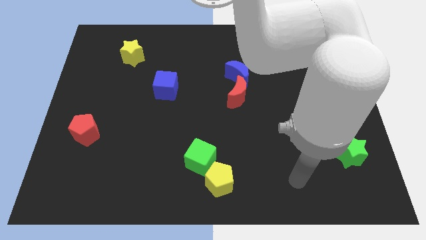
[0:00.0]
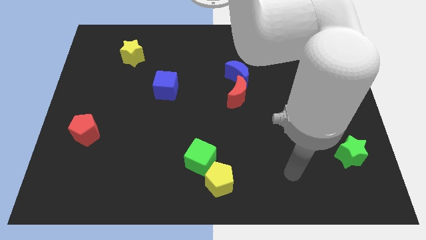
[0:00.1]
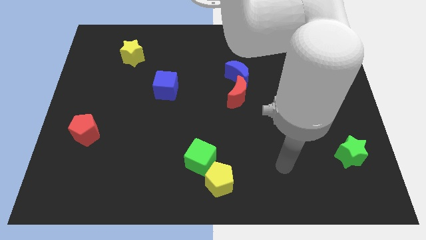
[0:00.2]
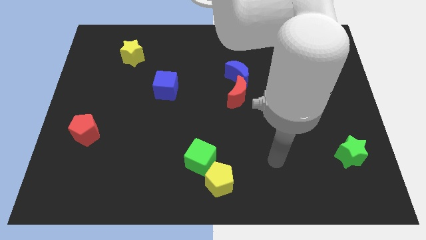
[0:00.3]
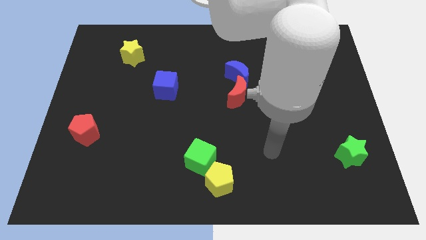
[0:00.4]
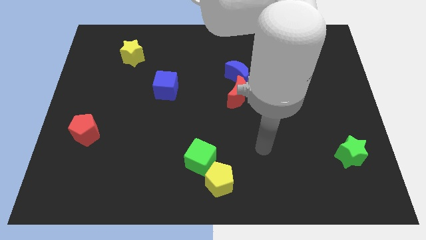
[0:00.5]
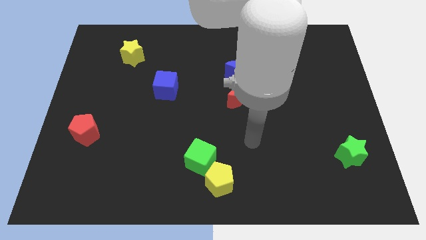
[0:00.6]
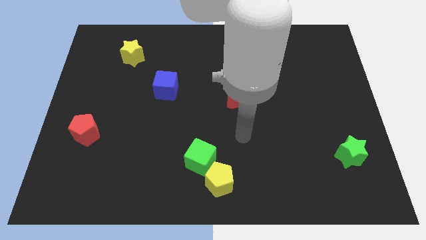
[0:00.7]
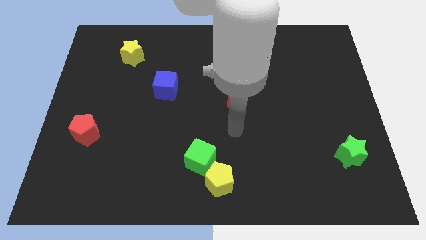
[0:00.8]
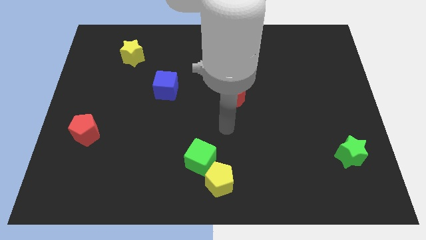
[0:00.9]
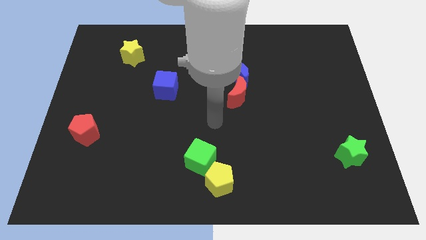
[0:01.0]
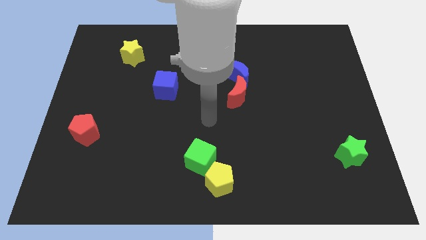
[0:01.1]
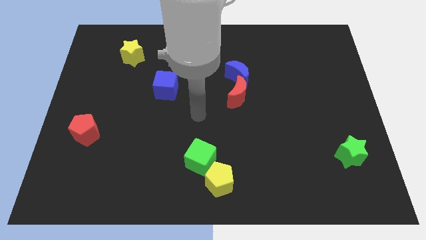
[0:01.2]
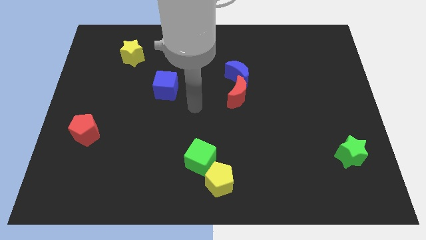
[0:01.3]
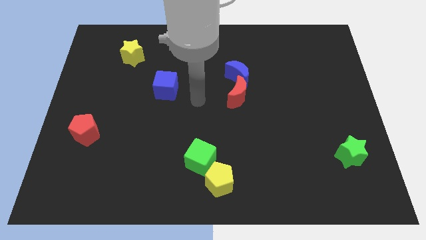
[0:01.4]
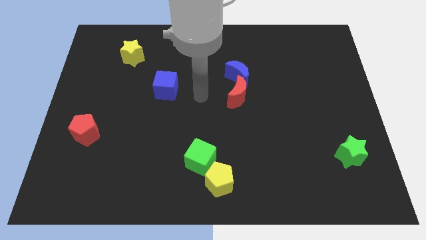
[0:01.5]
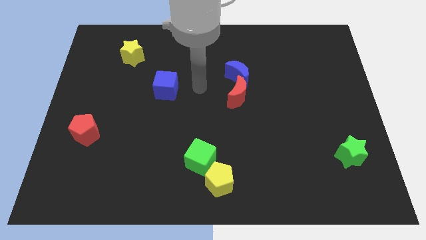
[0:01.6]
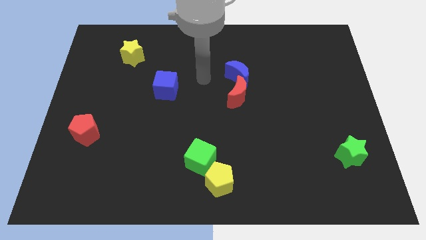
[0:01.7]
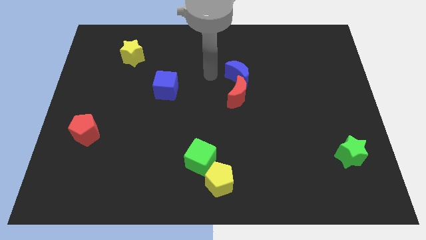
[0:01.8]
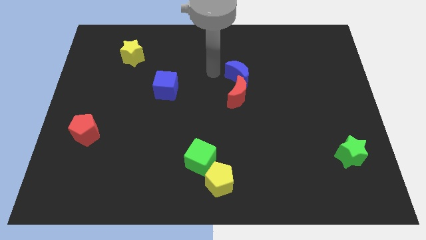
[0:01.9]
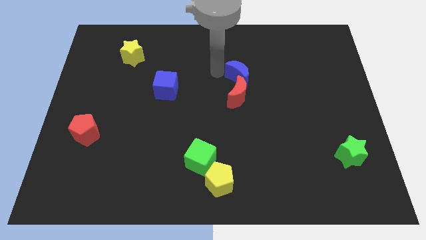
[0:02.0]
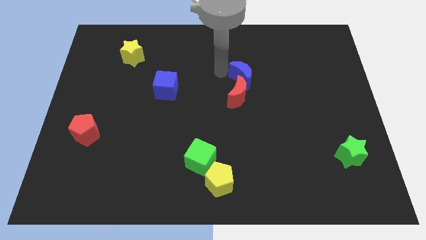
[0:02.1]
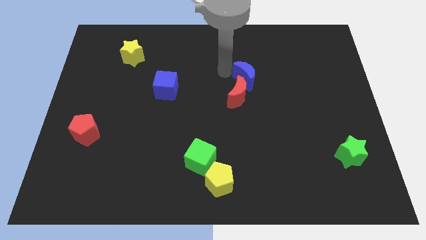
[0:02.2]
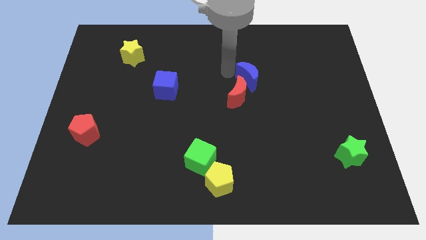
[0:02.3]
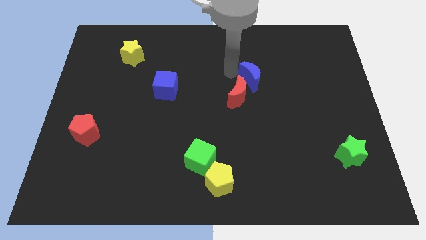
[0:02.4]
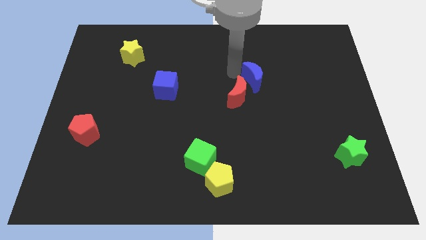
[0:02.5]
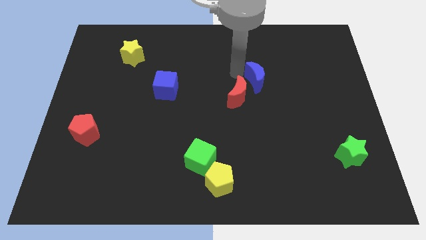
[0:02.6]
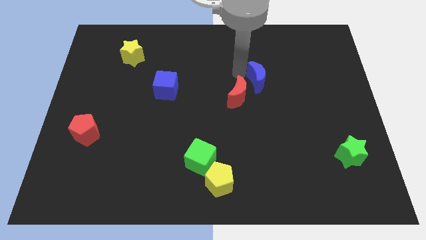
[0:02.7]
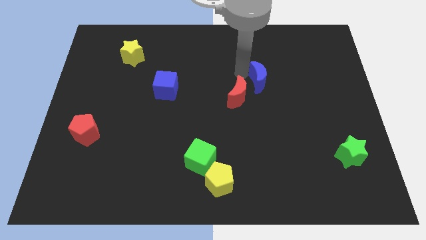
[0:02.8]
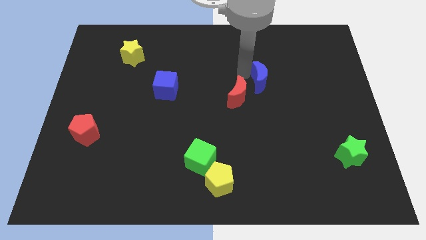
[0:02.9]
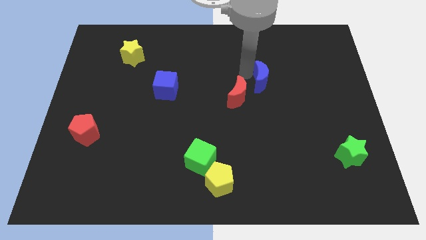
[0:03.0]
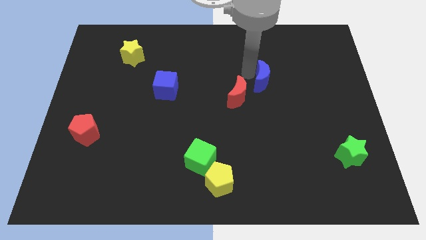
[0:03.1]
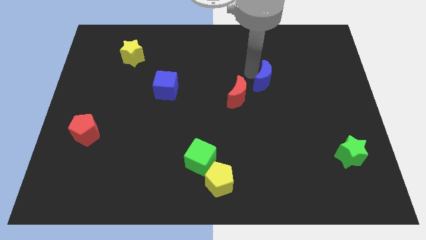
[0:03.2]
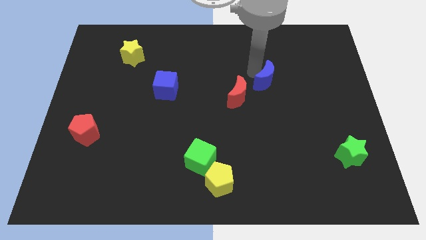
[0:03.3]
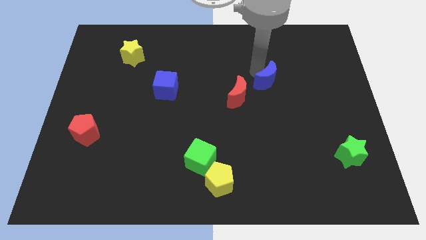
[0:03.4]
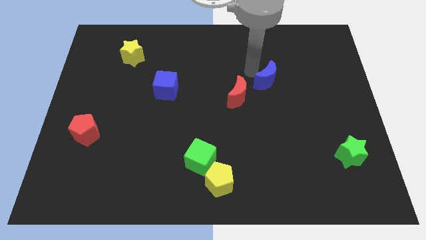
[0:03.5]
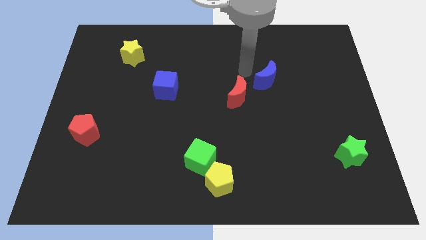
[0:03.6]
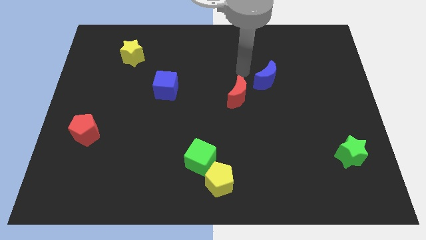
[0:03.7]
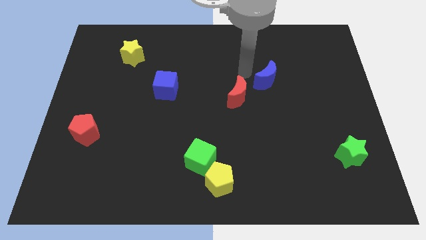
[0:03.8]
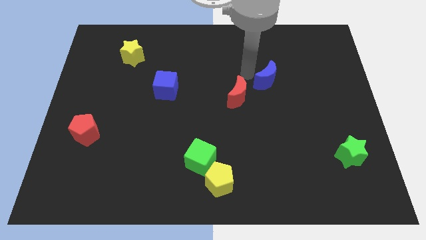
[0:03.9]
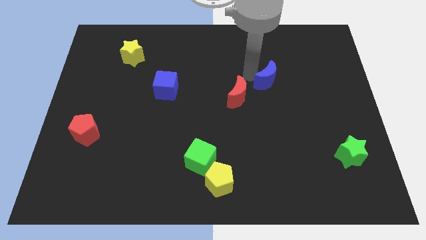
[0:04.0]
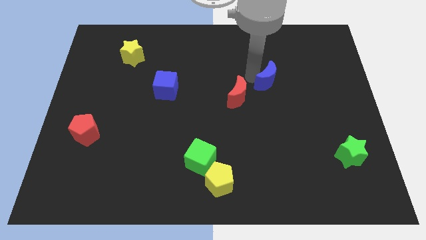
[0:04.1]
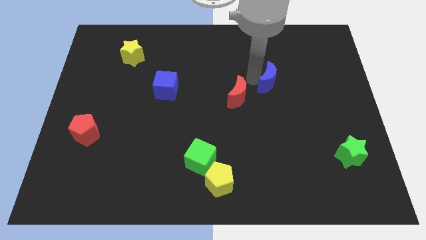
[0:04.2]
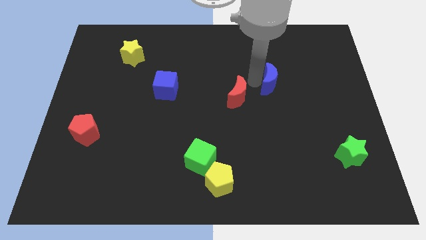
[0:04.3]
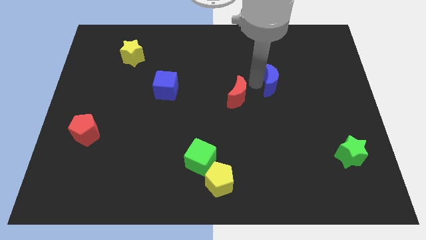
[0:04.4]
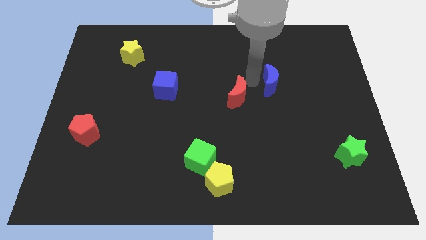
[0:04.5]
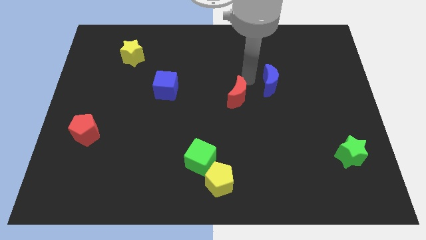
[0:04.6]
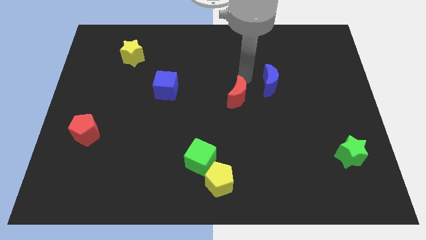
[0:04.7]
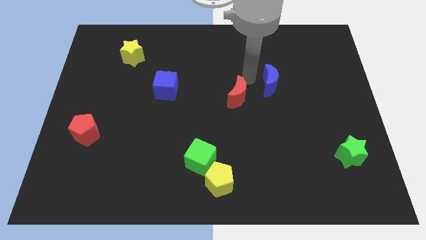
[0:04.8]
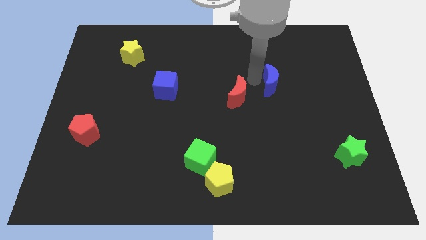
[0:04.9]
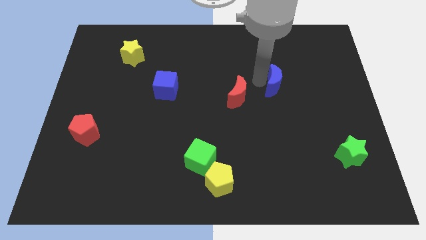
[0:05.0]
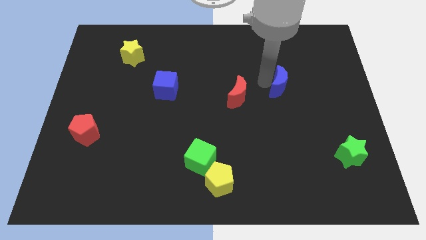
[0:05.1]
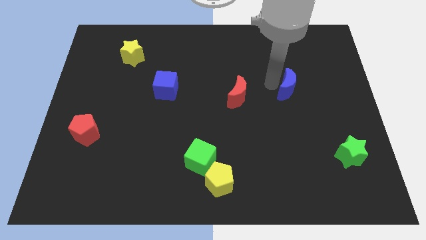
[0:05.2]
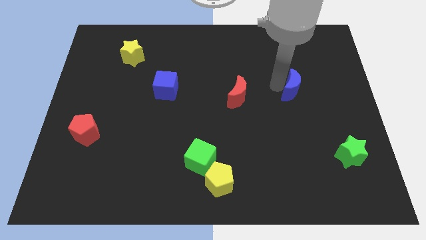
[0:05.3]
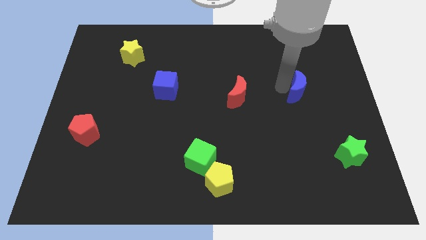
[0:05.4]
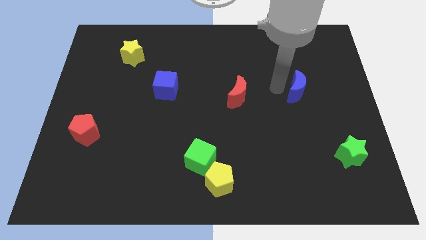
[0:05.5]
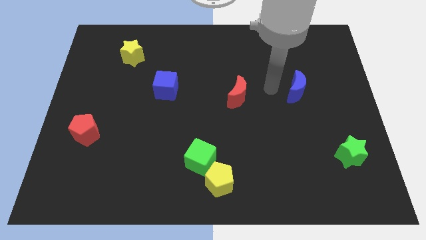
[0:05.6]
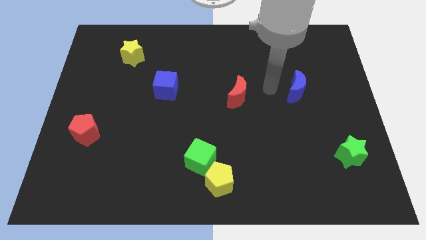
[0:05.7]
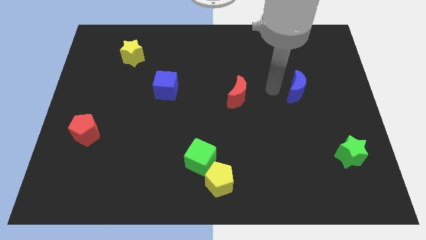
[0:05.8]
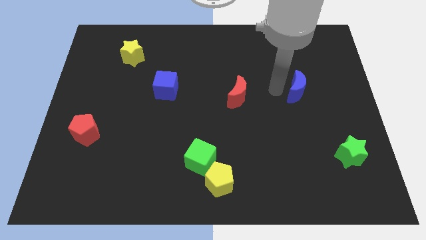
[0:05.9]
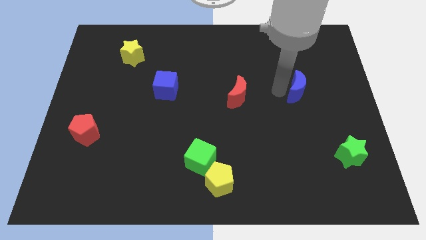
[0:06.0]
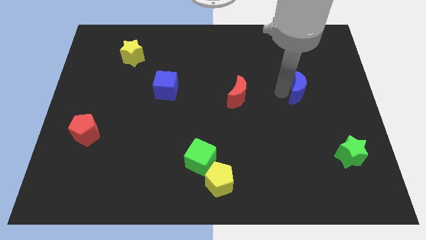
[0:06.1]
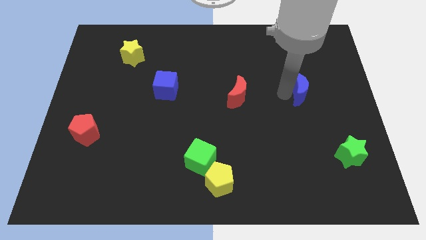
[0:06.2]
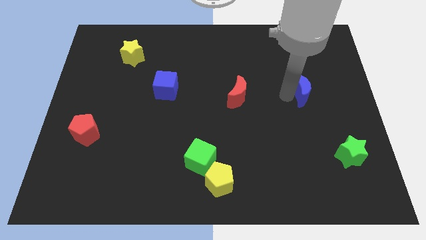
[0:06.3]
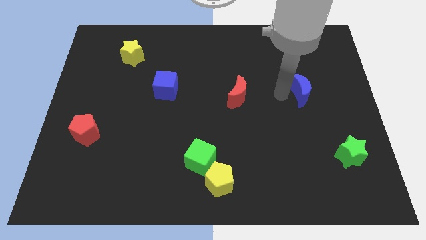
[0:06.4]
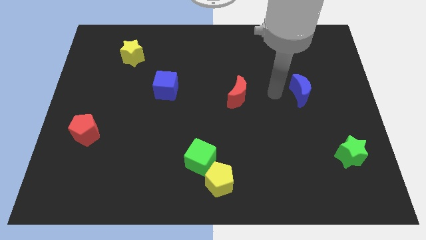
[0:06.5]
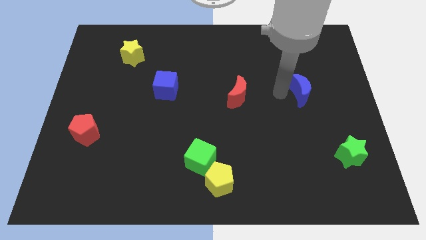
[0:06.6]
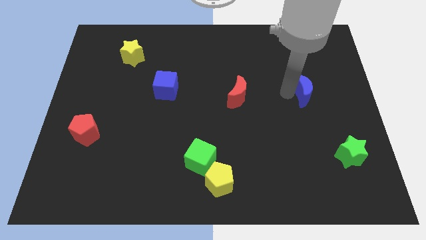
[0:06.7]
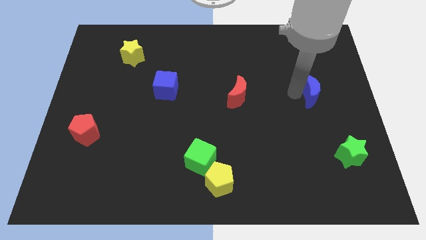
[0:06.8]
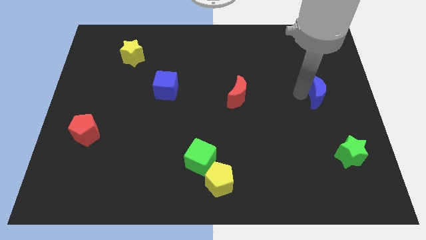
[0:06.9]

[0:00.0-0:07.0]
put the blue moon to the right side

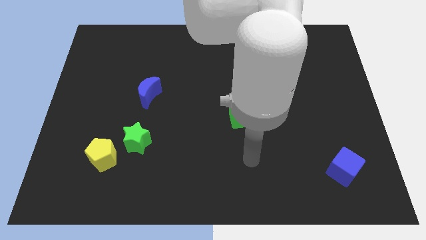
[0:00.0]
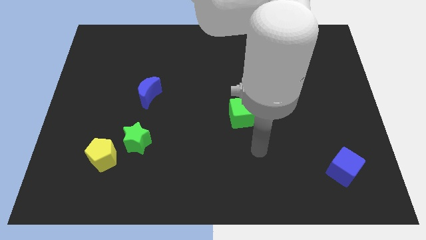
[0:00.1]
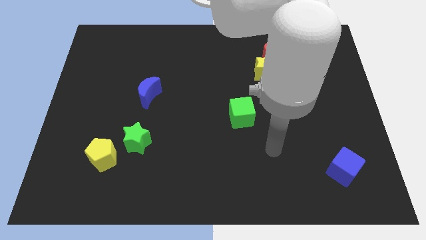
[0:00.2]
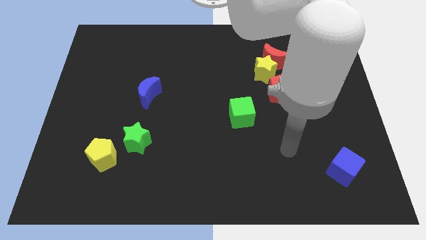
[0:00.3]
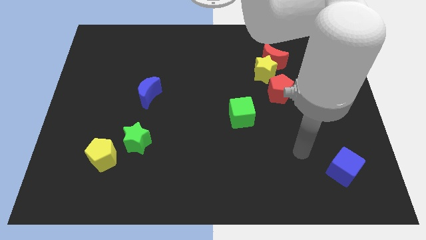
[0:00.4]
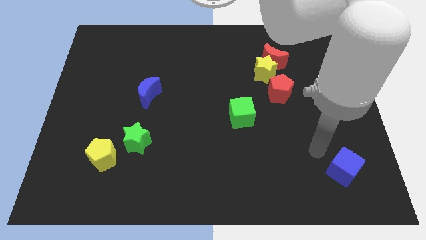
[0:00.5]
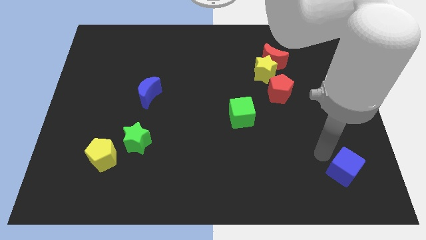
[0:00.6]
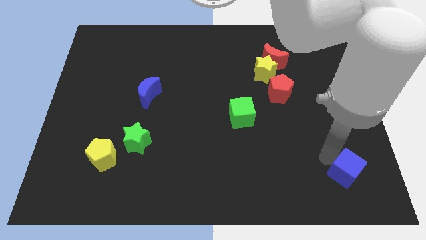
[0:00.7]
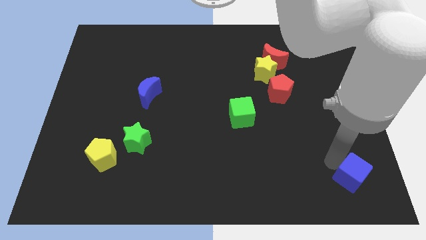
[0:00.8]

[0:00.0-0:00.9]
put the blue cube to the lower right corner
